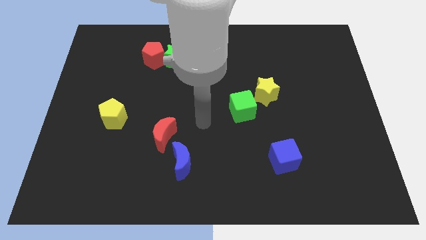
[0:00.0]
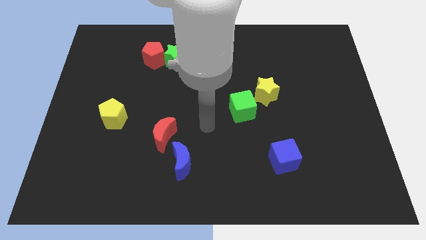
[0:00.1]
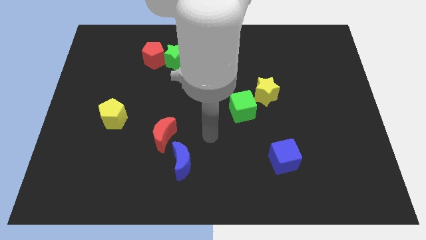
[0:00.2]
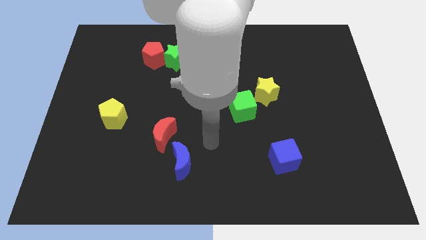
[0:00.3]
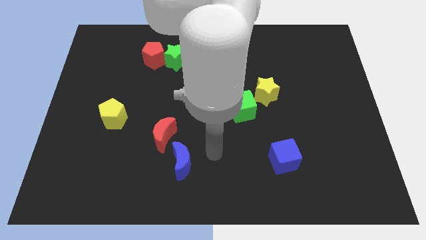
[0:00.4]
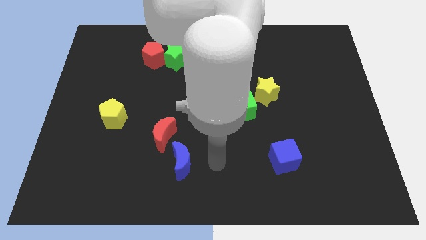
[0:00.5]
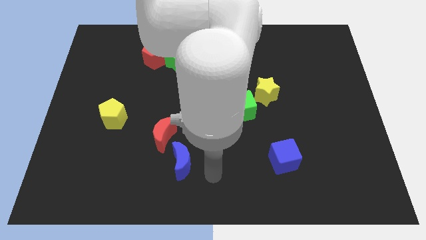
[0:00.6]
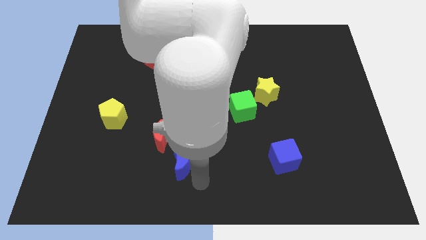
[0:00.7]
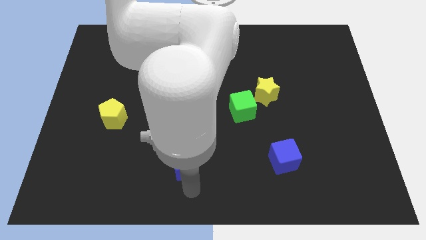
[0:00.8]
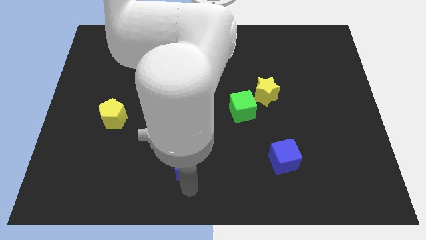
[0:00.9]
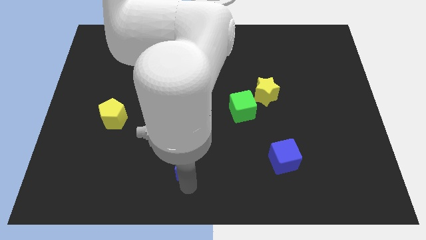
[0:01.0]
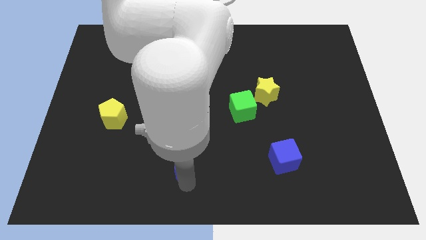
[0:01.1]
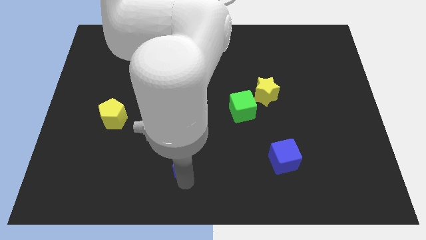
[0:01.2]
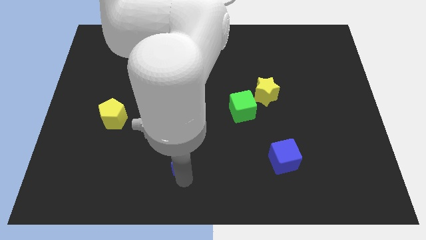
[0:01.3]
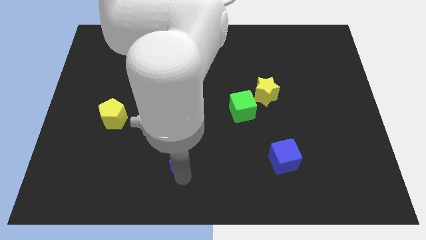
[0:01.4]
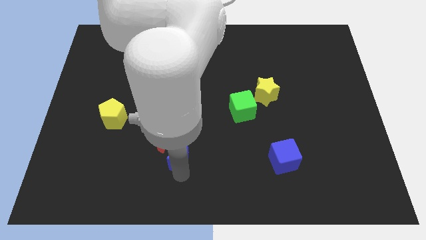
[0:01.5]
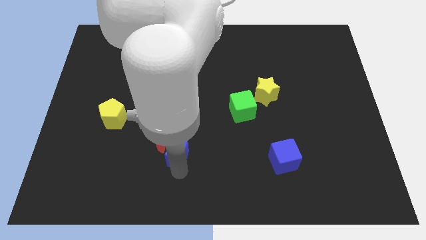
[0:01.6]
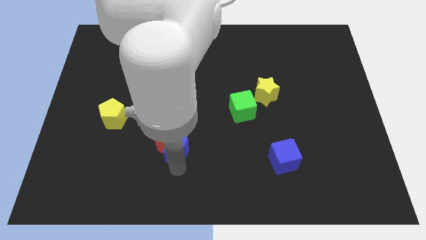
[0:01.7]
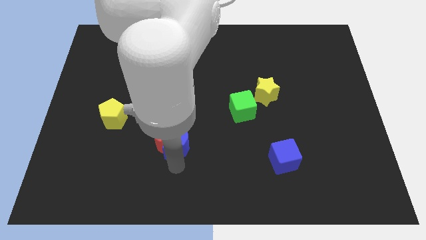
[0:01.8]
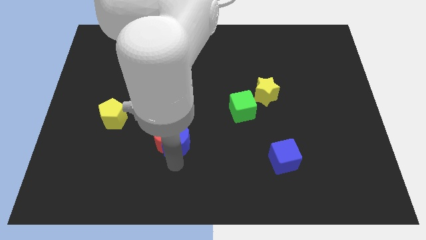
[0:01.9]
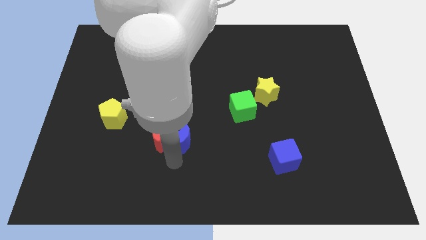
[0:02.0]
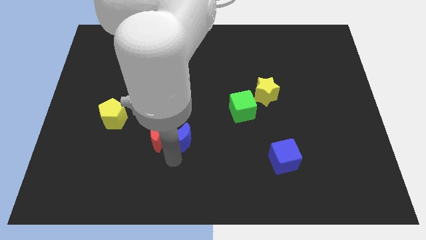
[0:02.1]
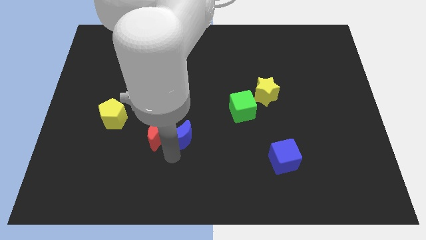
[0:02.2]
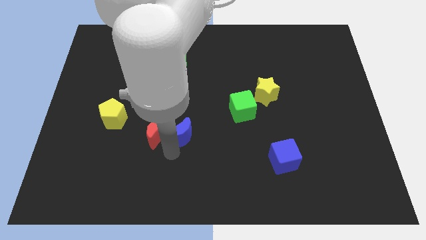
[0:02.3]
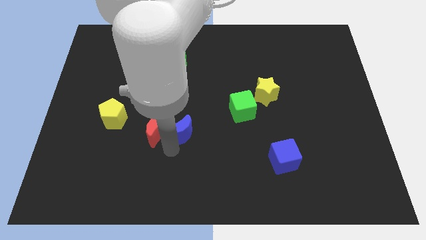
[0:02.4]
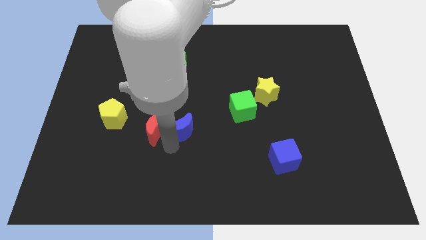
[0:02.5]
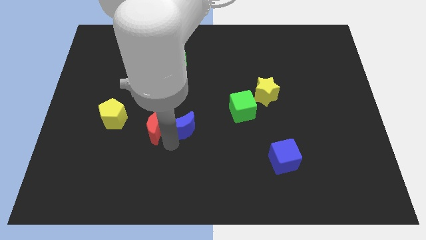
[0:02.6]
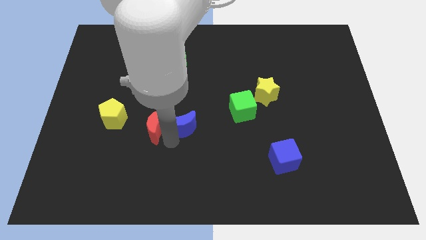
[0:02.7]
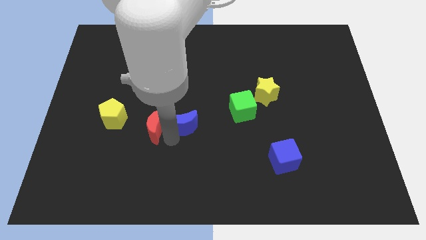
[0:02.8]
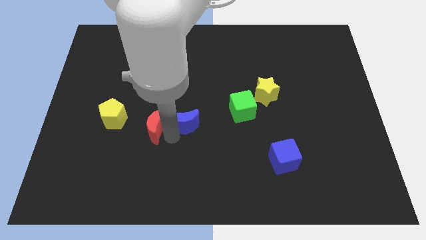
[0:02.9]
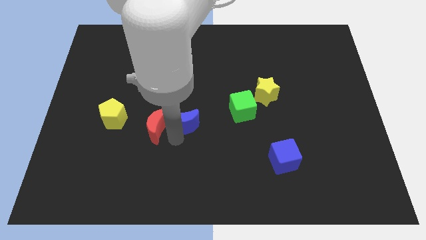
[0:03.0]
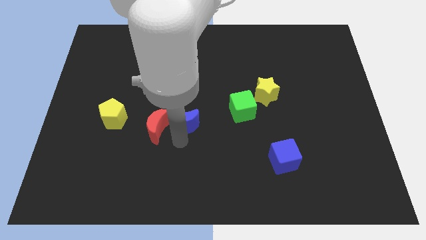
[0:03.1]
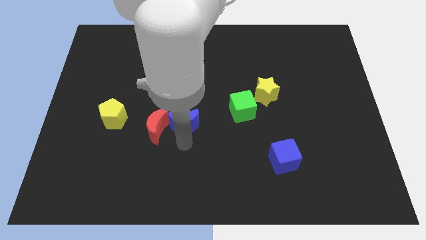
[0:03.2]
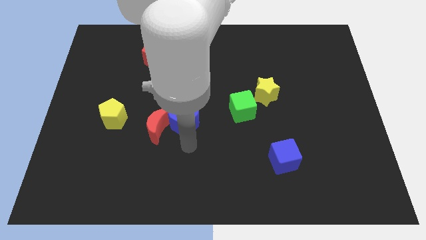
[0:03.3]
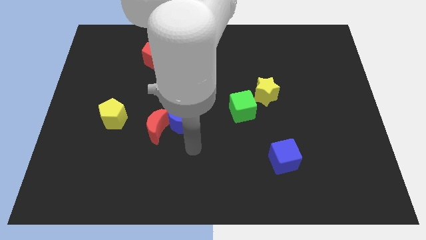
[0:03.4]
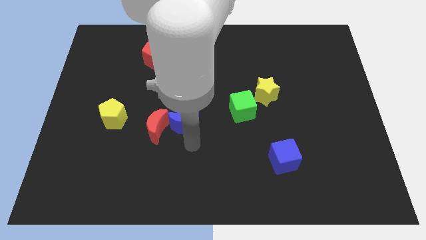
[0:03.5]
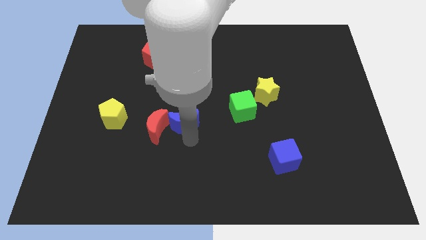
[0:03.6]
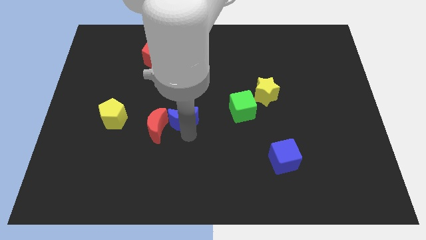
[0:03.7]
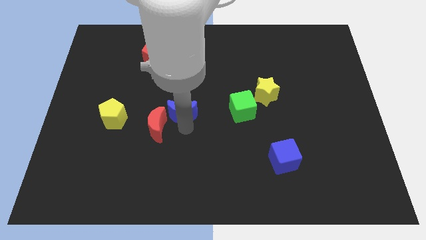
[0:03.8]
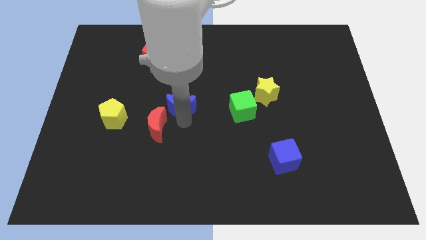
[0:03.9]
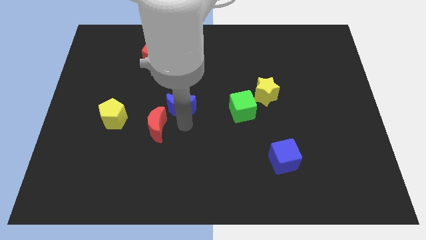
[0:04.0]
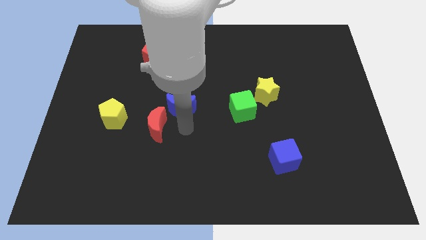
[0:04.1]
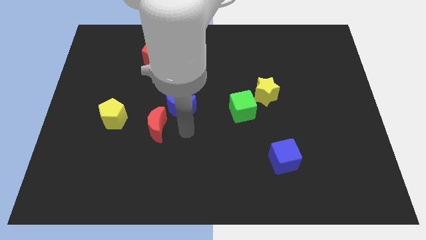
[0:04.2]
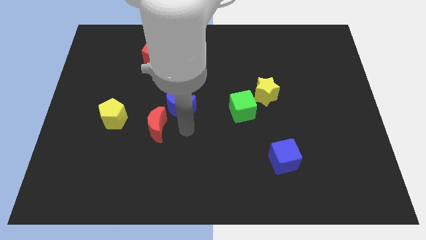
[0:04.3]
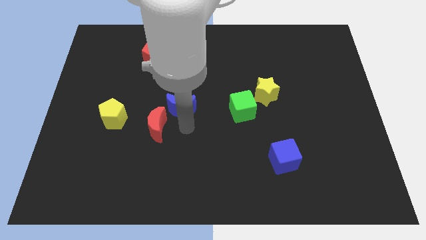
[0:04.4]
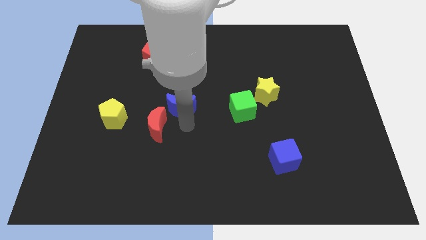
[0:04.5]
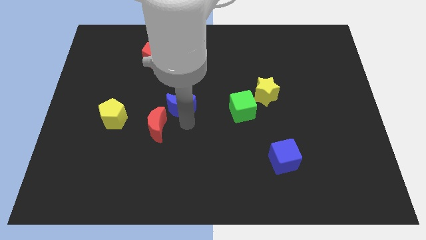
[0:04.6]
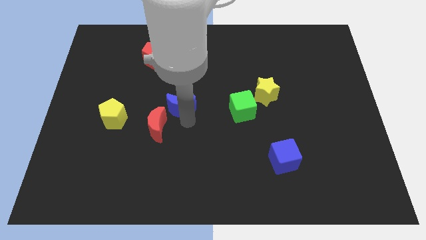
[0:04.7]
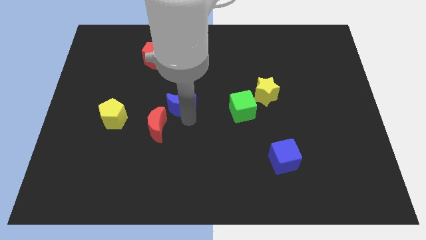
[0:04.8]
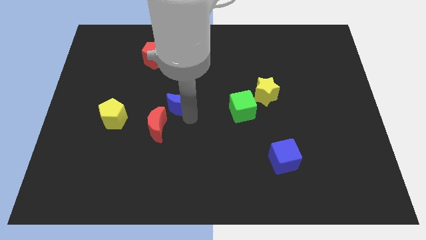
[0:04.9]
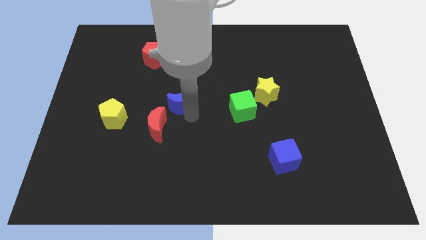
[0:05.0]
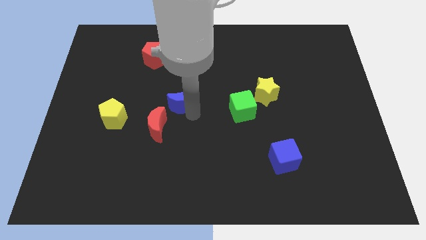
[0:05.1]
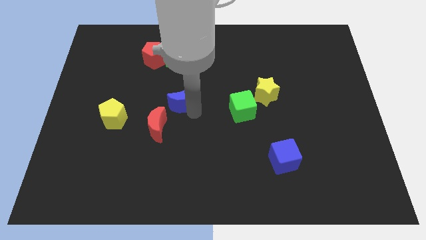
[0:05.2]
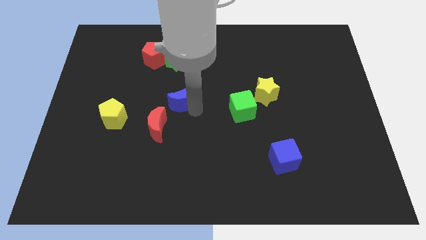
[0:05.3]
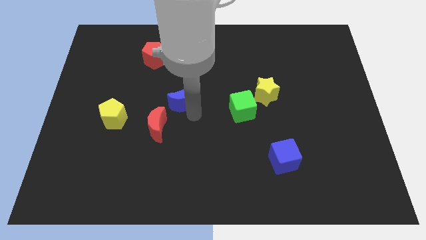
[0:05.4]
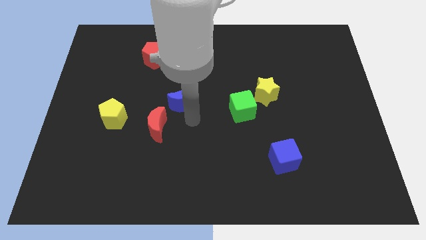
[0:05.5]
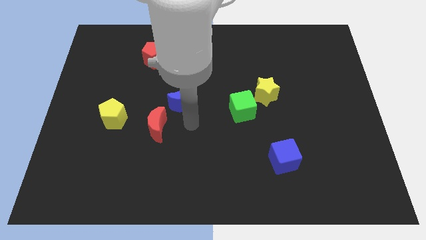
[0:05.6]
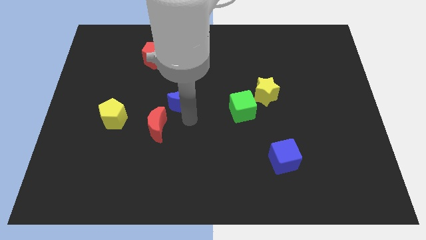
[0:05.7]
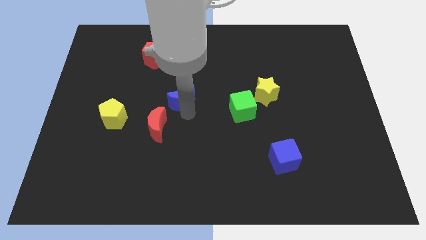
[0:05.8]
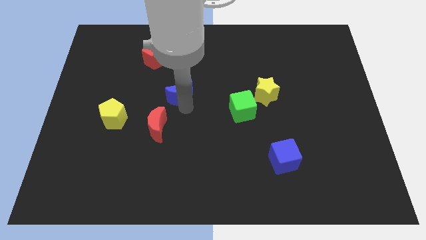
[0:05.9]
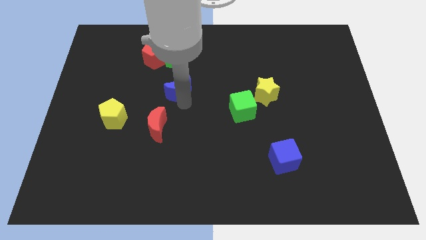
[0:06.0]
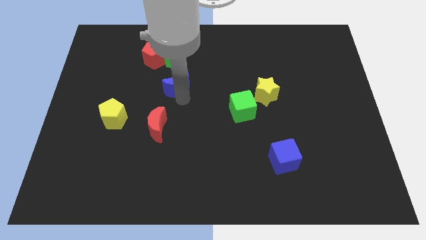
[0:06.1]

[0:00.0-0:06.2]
slide the blue moon to the bottom right side of the red pentagon

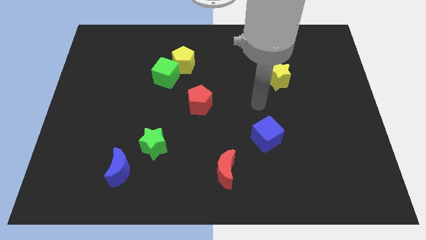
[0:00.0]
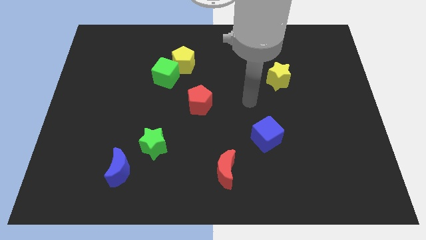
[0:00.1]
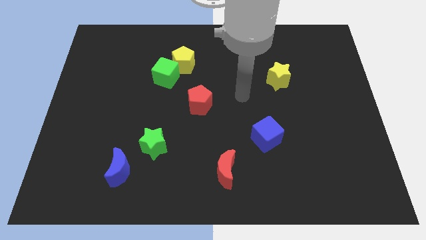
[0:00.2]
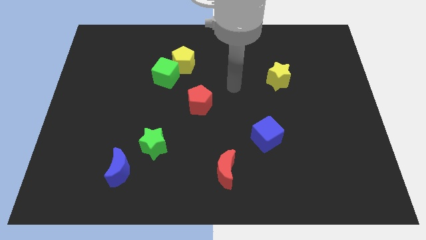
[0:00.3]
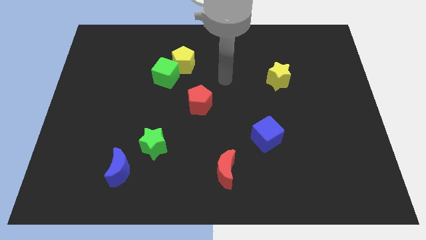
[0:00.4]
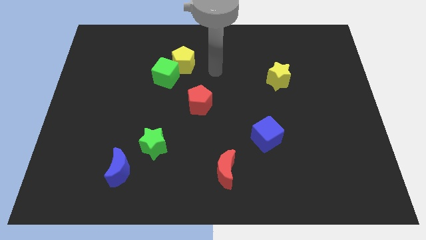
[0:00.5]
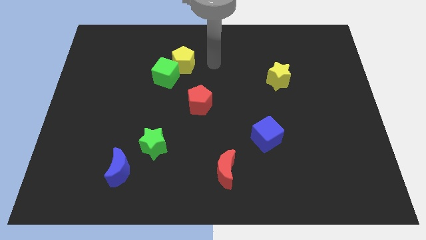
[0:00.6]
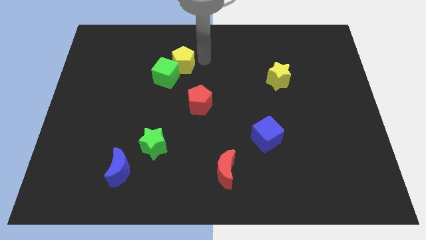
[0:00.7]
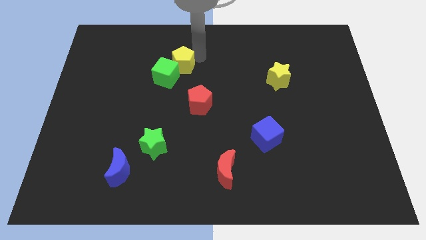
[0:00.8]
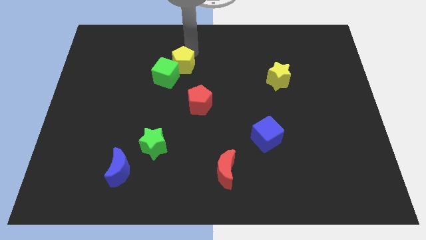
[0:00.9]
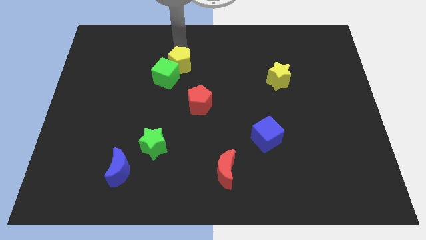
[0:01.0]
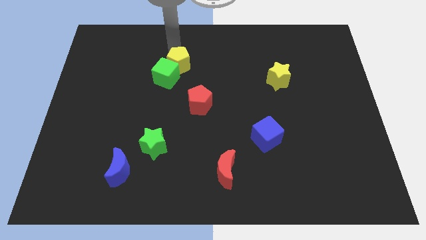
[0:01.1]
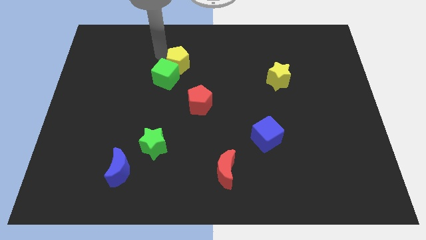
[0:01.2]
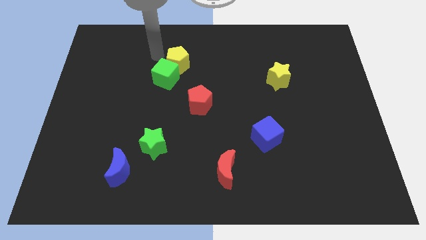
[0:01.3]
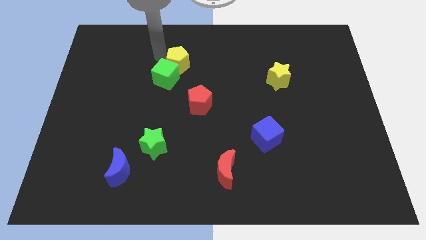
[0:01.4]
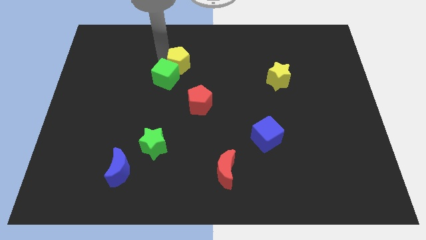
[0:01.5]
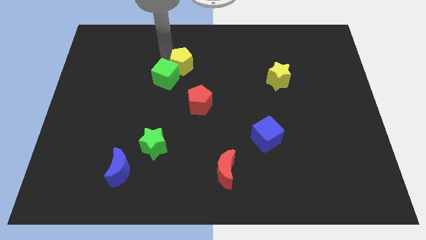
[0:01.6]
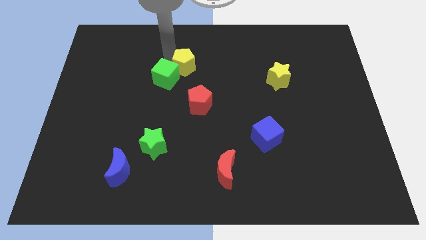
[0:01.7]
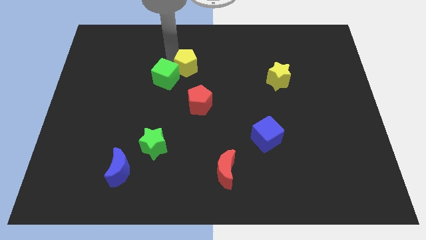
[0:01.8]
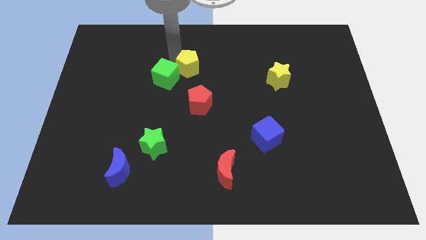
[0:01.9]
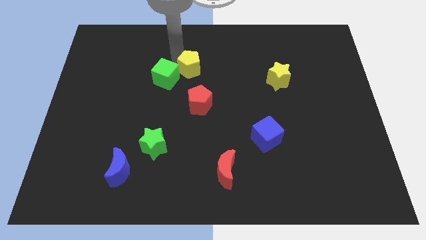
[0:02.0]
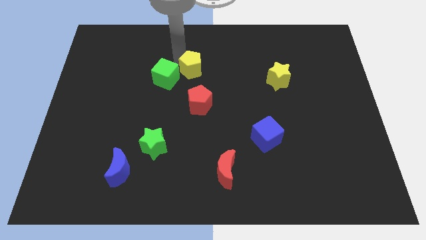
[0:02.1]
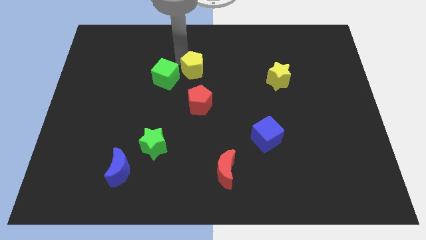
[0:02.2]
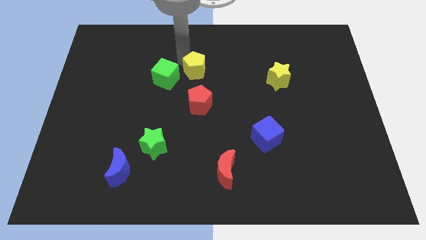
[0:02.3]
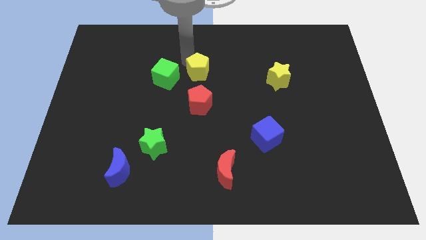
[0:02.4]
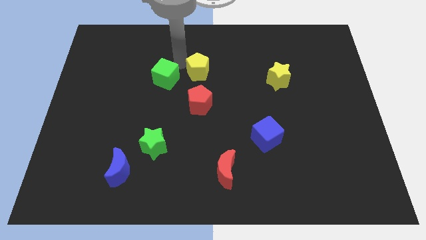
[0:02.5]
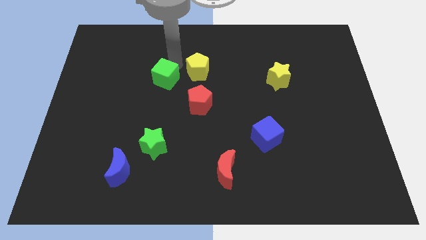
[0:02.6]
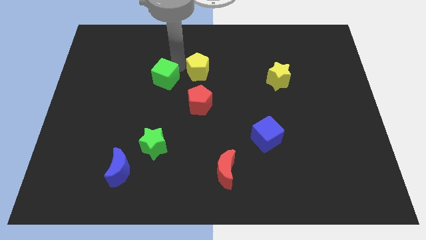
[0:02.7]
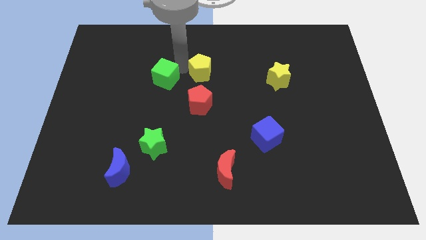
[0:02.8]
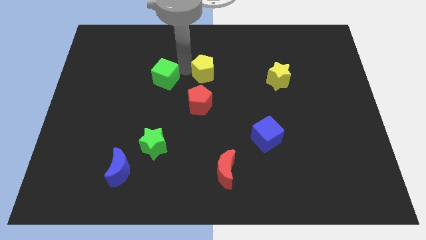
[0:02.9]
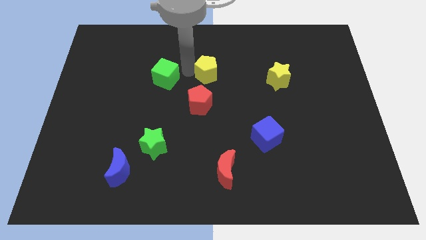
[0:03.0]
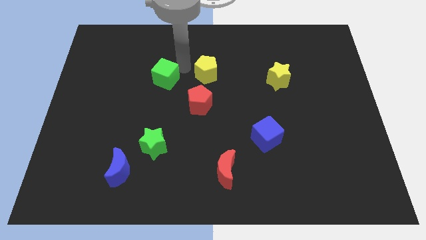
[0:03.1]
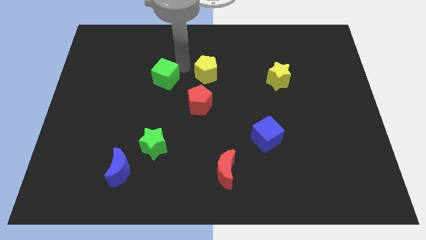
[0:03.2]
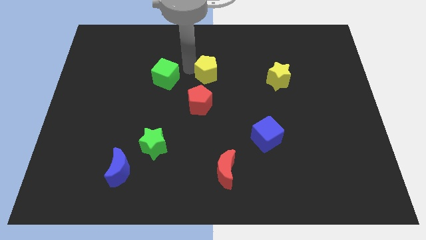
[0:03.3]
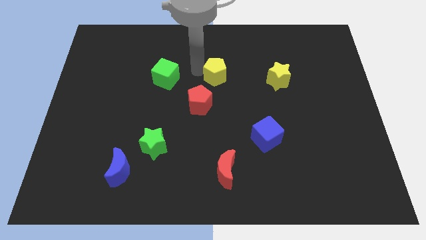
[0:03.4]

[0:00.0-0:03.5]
push the yellow pentagon just left of the yellow star
